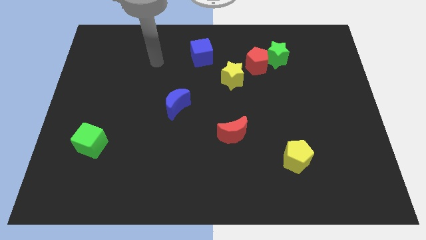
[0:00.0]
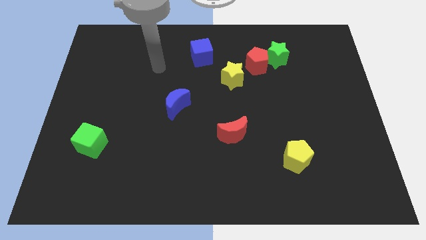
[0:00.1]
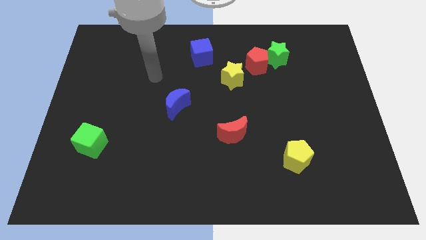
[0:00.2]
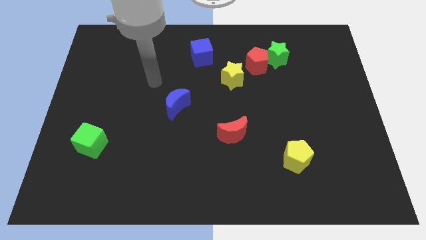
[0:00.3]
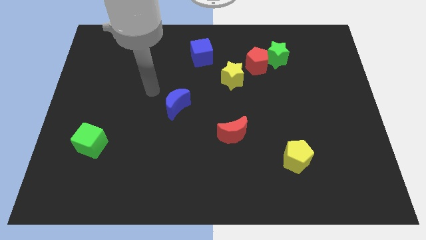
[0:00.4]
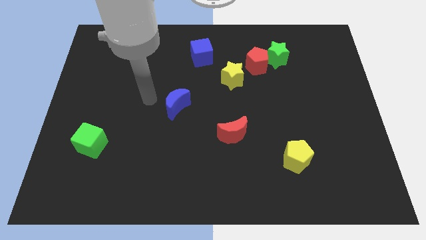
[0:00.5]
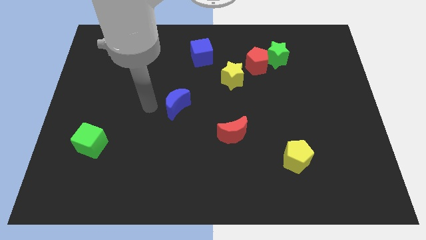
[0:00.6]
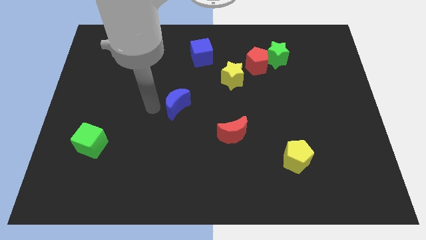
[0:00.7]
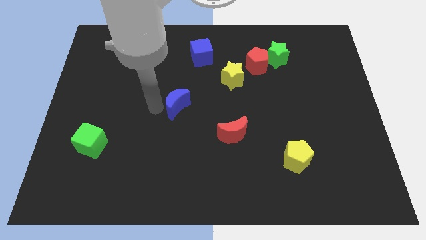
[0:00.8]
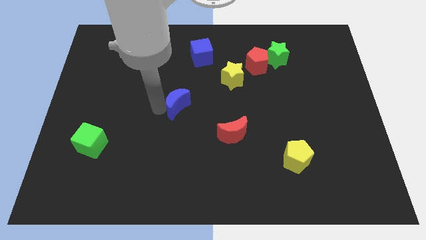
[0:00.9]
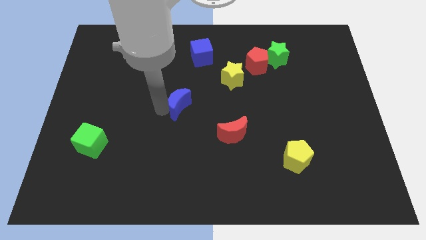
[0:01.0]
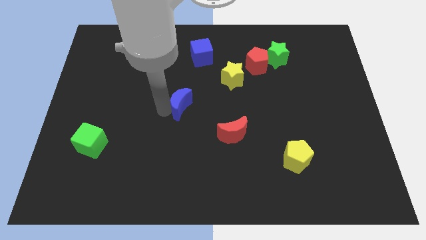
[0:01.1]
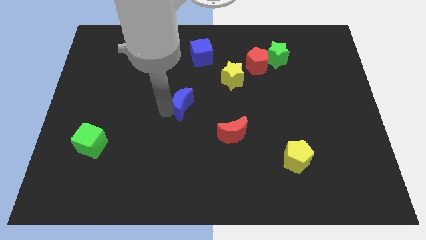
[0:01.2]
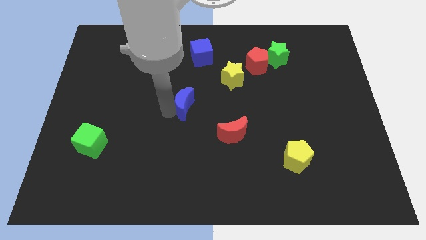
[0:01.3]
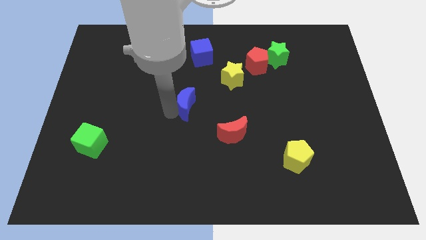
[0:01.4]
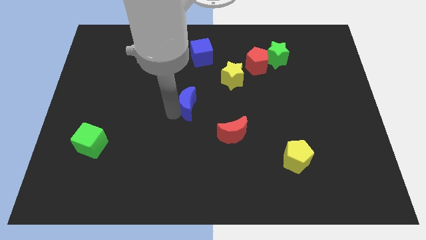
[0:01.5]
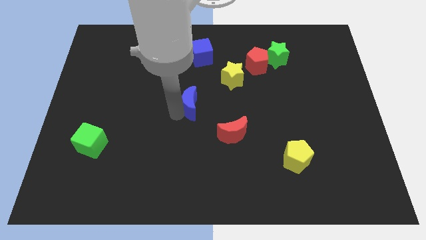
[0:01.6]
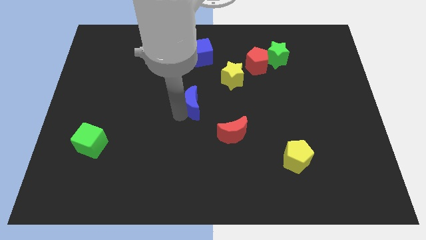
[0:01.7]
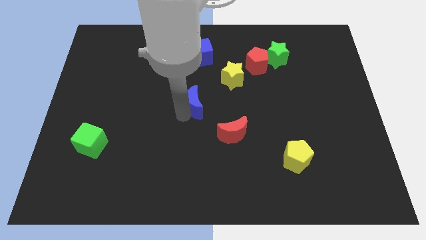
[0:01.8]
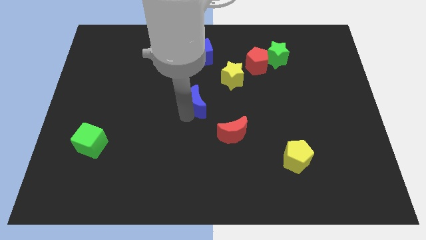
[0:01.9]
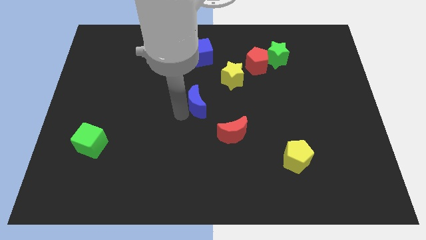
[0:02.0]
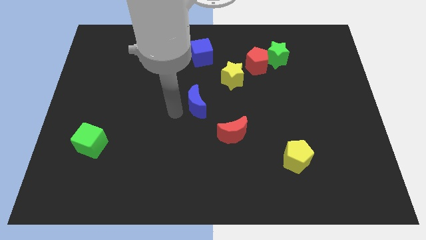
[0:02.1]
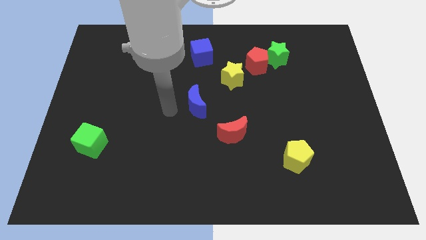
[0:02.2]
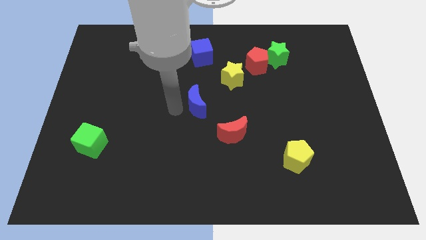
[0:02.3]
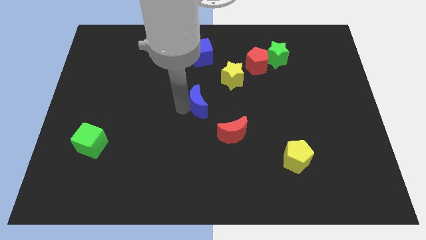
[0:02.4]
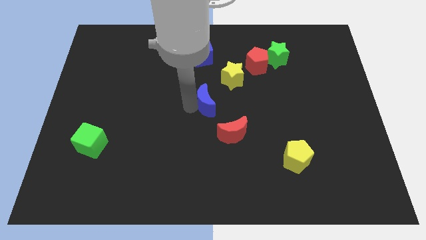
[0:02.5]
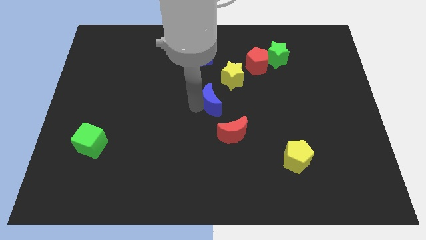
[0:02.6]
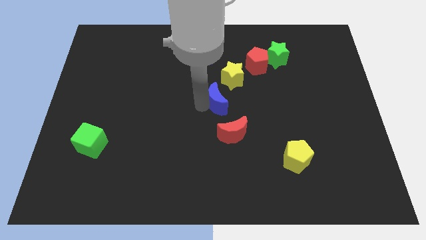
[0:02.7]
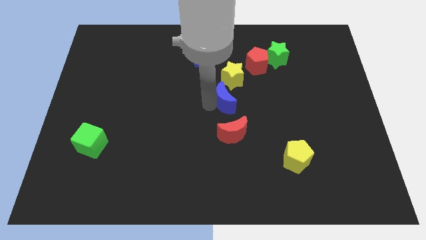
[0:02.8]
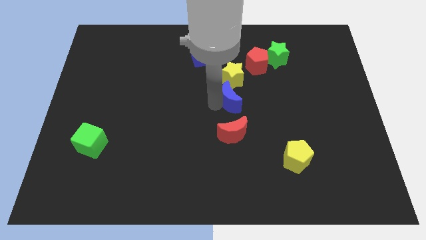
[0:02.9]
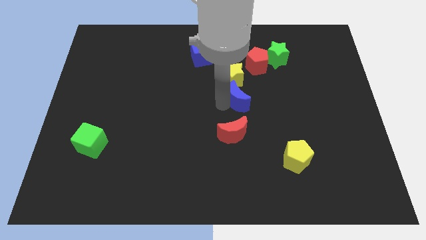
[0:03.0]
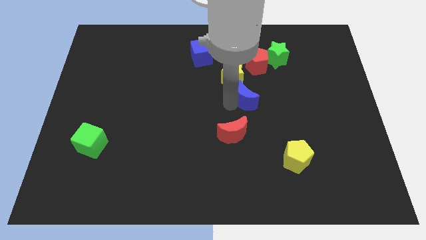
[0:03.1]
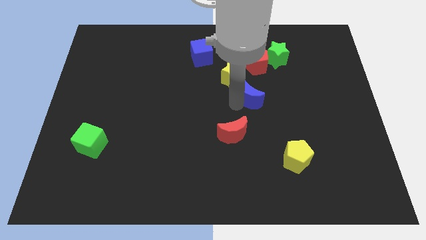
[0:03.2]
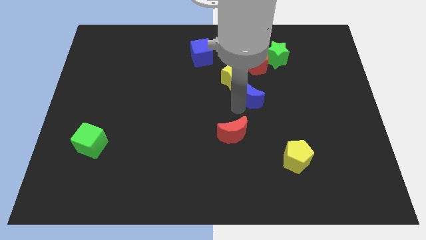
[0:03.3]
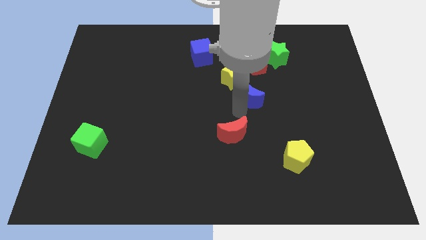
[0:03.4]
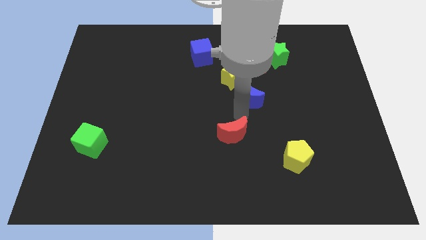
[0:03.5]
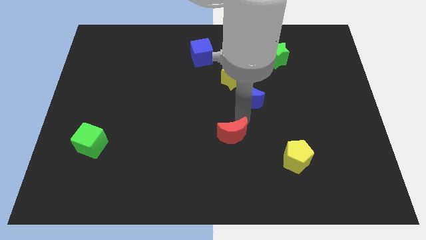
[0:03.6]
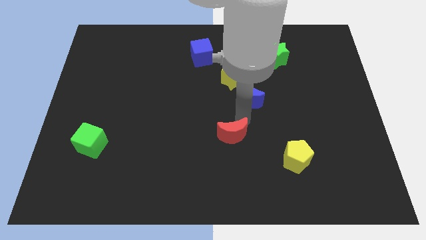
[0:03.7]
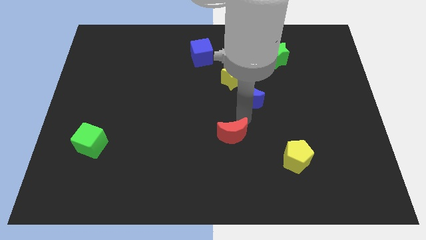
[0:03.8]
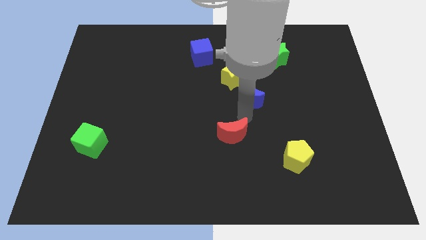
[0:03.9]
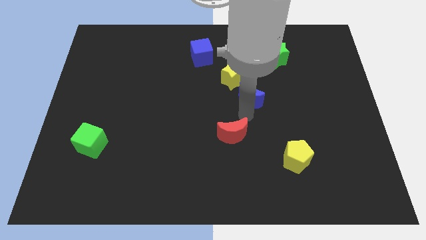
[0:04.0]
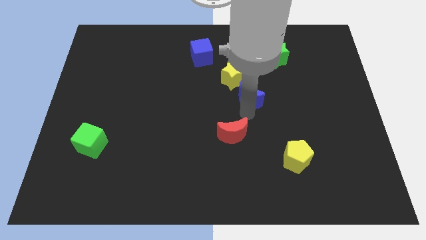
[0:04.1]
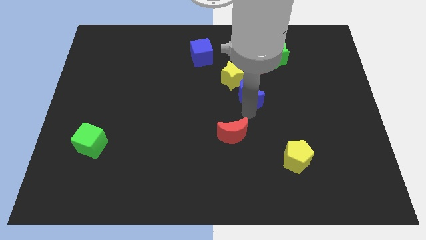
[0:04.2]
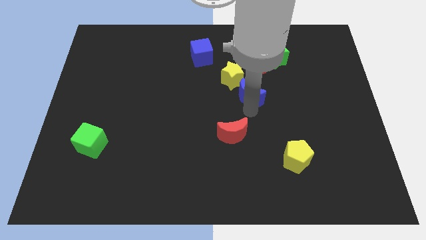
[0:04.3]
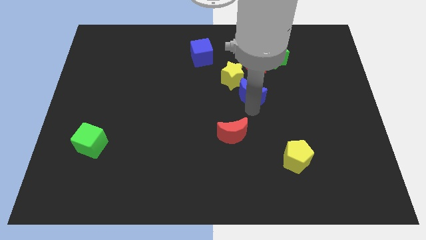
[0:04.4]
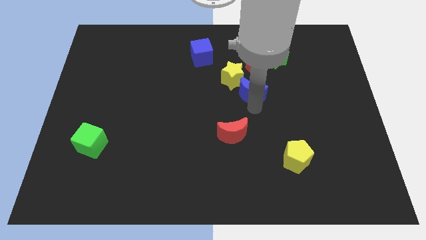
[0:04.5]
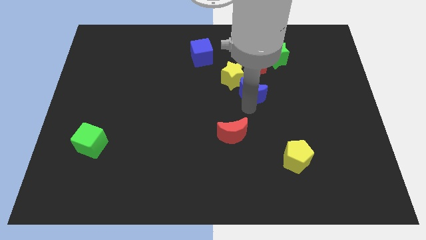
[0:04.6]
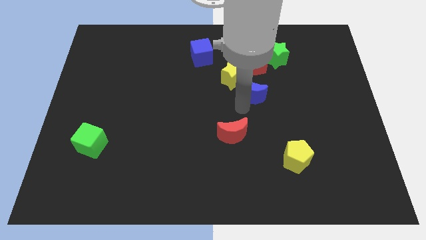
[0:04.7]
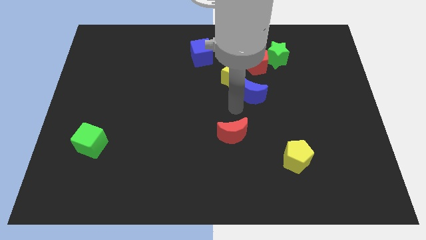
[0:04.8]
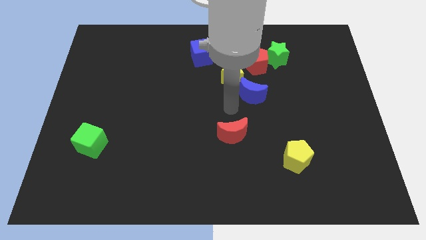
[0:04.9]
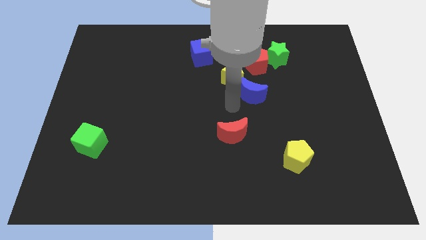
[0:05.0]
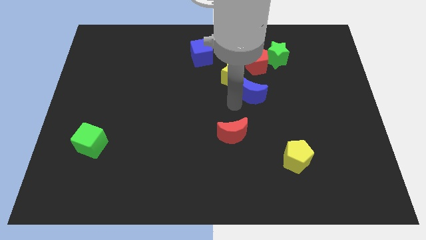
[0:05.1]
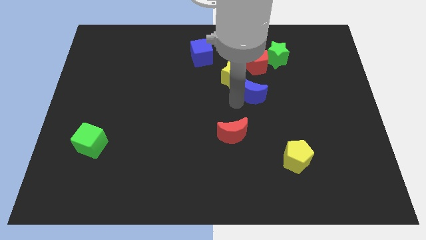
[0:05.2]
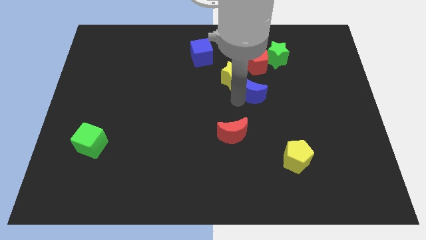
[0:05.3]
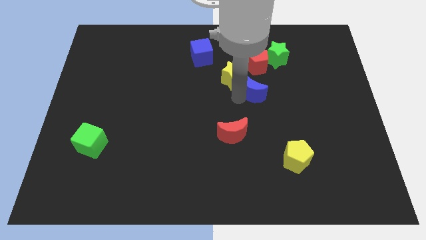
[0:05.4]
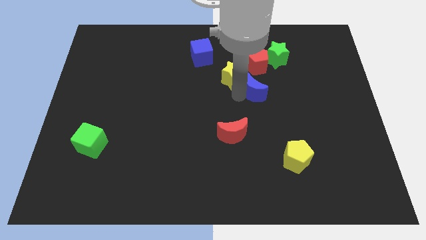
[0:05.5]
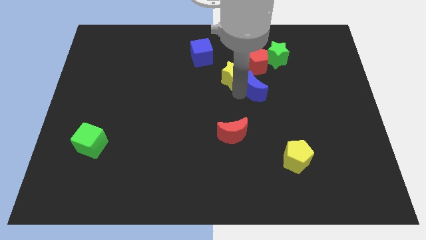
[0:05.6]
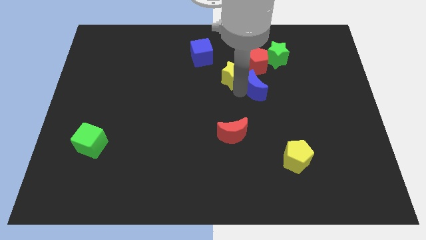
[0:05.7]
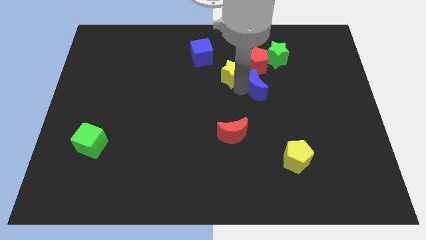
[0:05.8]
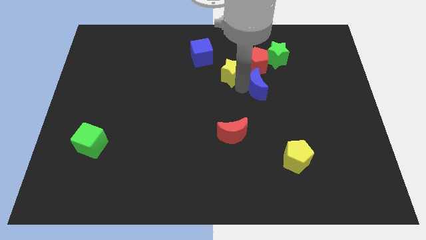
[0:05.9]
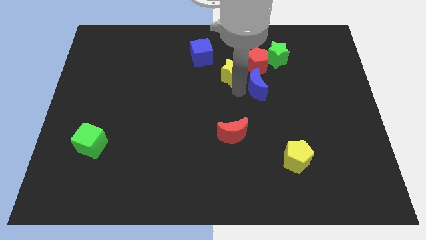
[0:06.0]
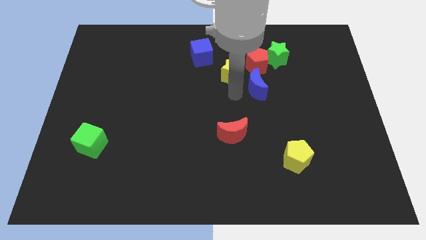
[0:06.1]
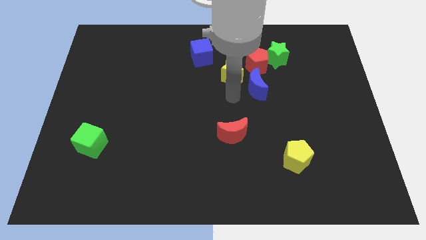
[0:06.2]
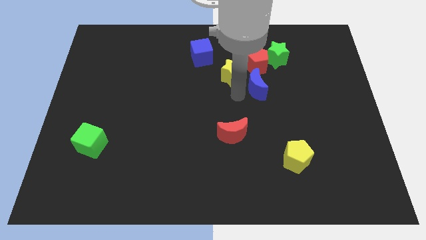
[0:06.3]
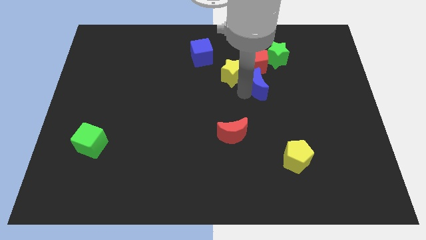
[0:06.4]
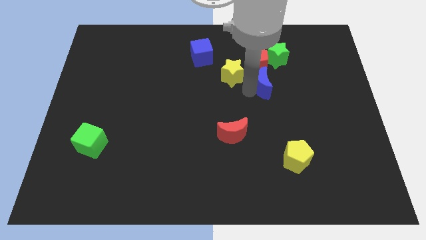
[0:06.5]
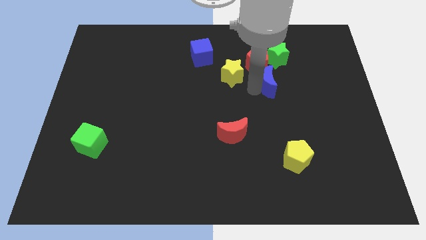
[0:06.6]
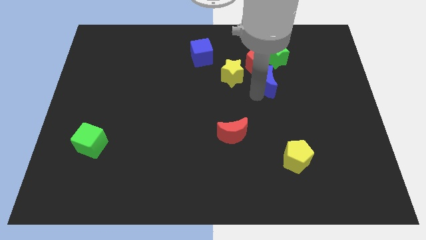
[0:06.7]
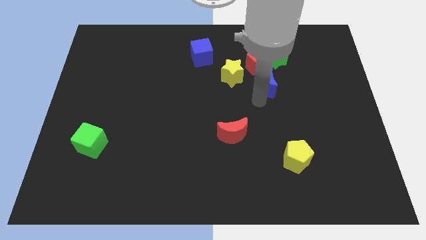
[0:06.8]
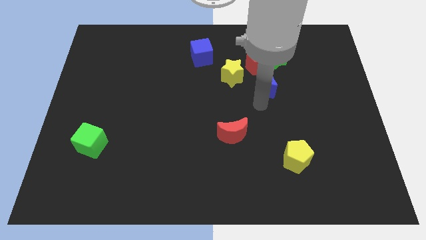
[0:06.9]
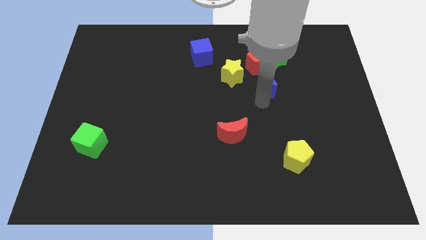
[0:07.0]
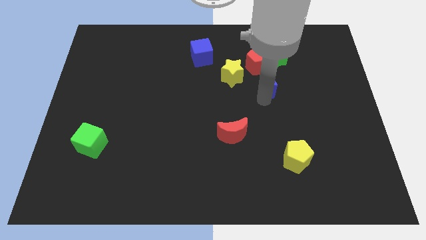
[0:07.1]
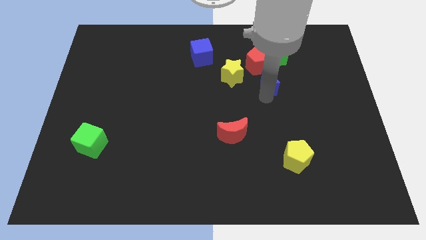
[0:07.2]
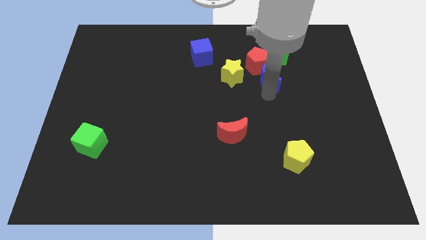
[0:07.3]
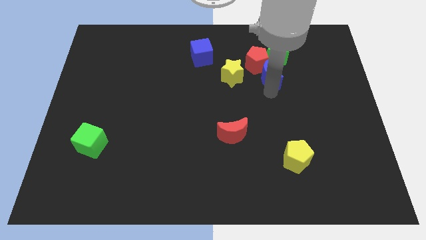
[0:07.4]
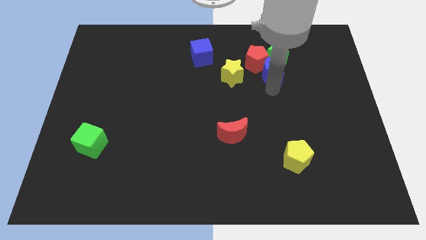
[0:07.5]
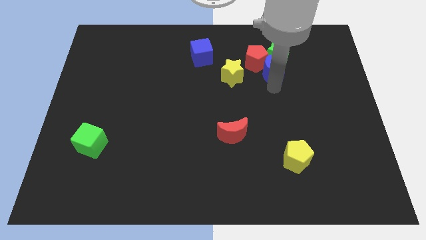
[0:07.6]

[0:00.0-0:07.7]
put the blue moon towards the green star
